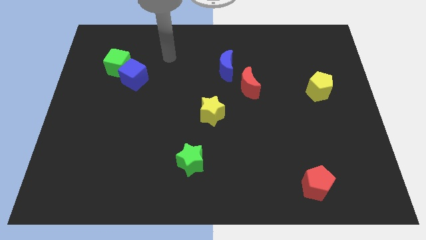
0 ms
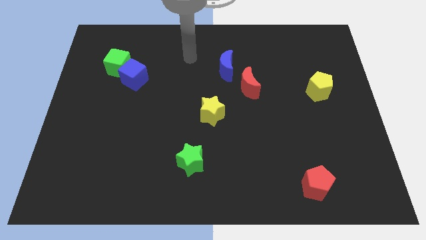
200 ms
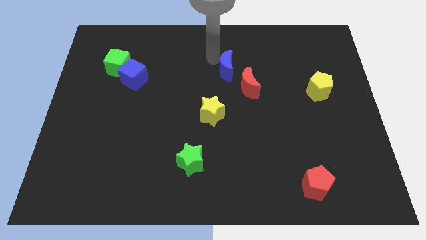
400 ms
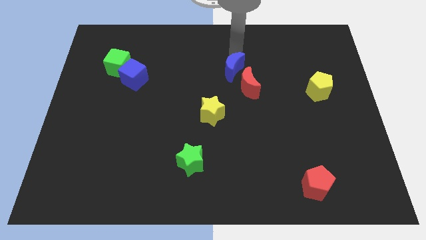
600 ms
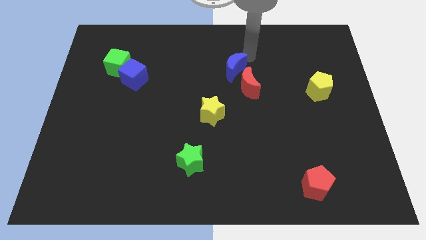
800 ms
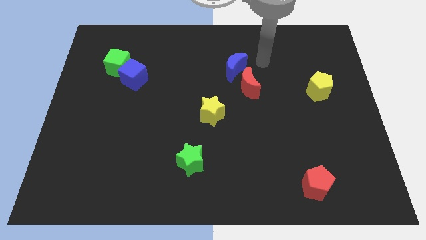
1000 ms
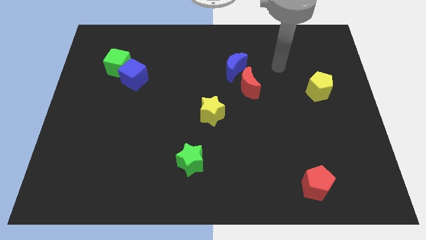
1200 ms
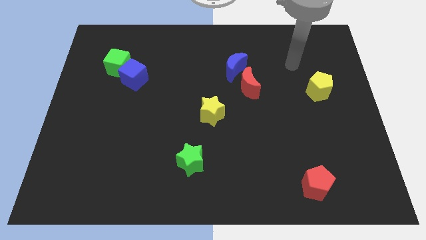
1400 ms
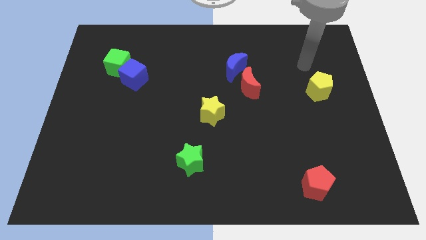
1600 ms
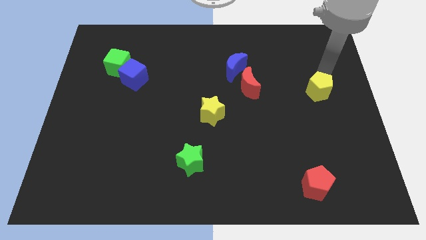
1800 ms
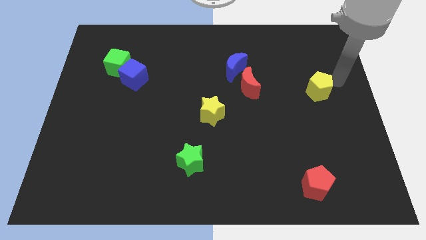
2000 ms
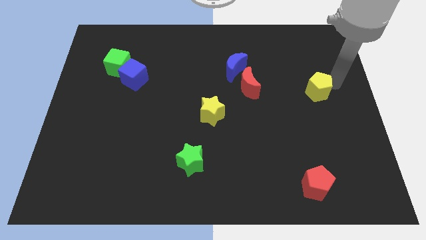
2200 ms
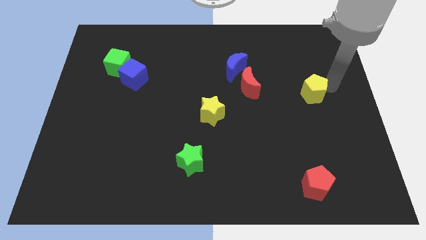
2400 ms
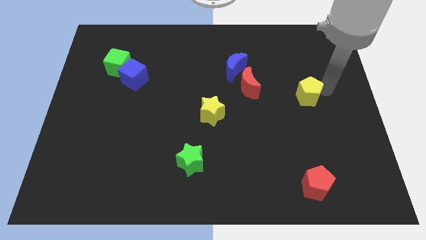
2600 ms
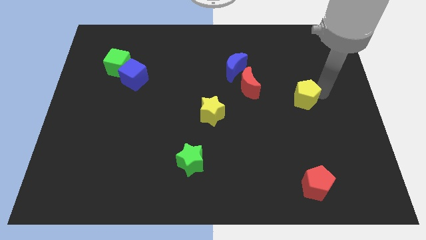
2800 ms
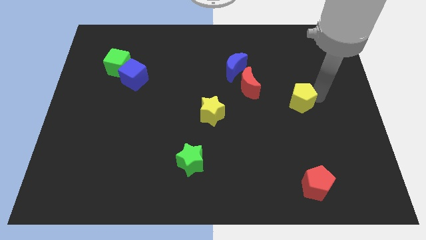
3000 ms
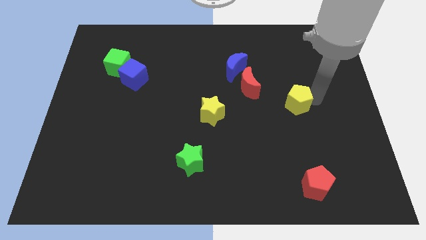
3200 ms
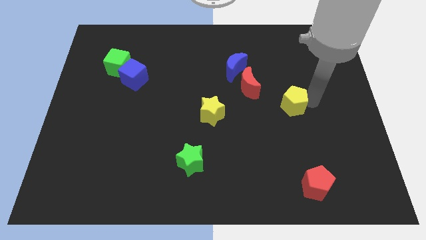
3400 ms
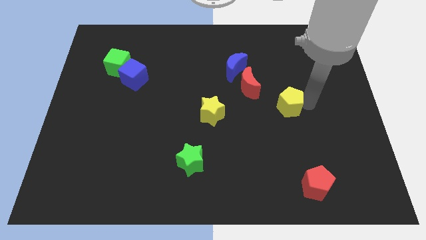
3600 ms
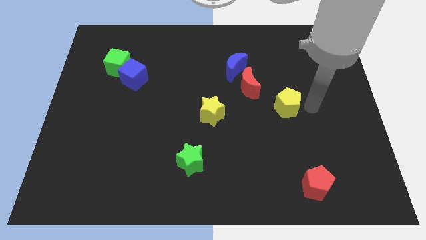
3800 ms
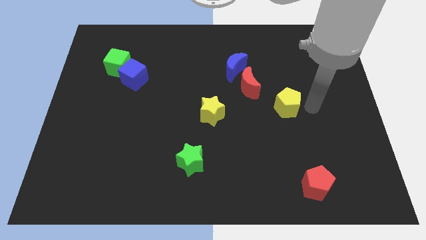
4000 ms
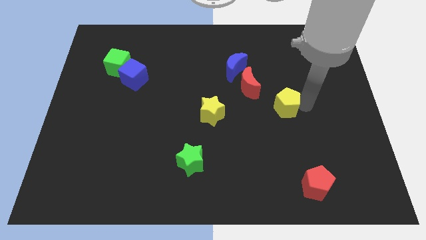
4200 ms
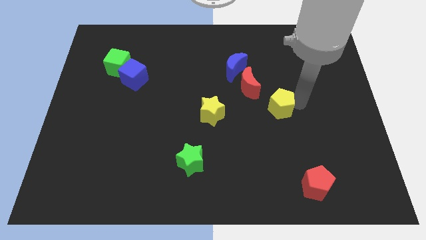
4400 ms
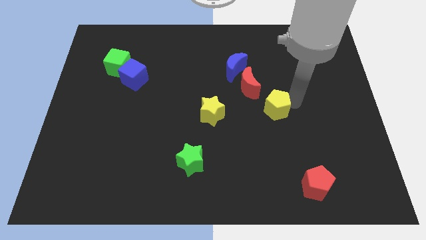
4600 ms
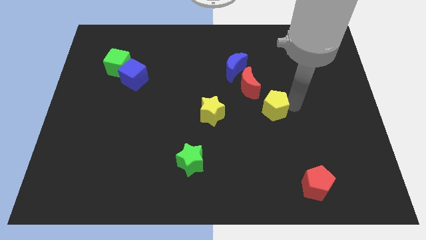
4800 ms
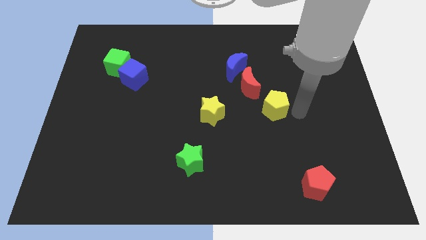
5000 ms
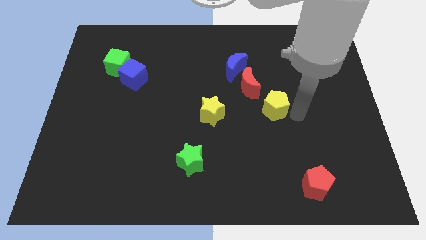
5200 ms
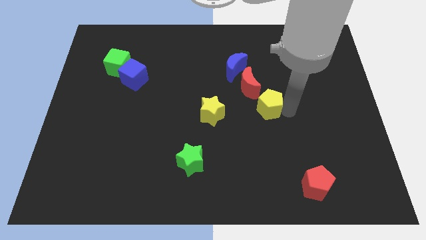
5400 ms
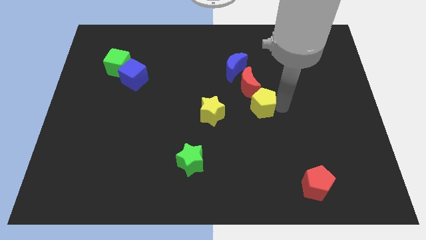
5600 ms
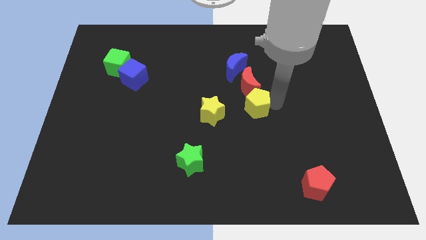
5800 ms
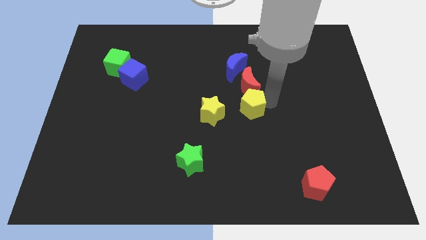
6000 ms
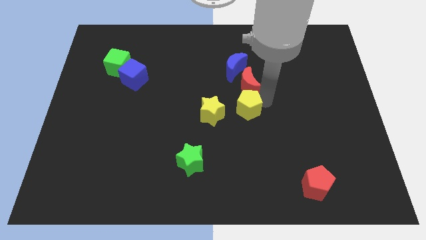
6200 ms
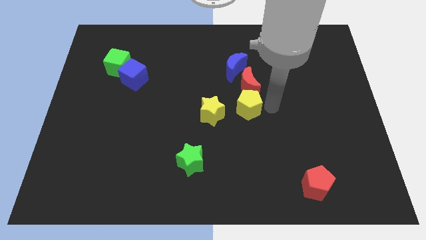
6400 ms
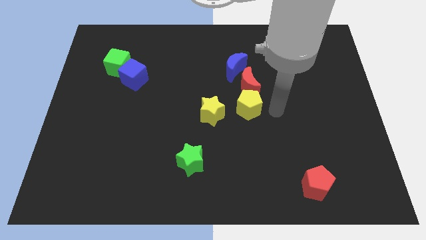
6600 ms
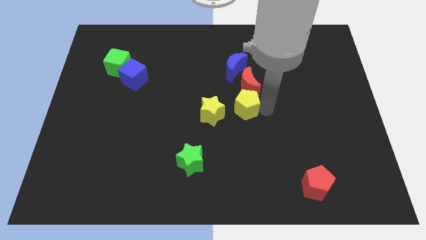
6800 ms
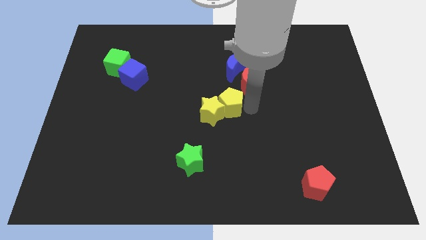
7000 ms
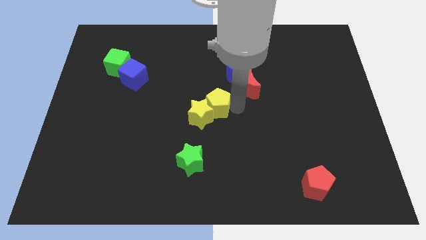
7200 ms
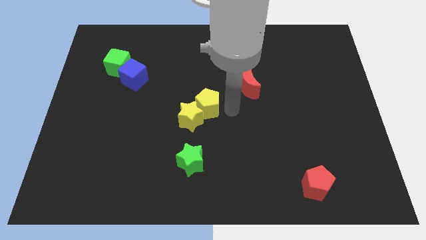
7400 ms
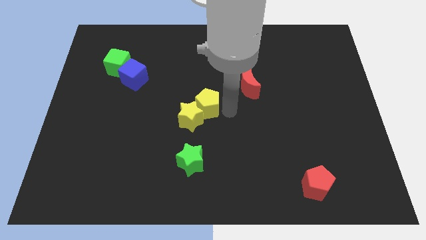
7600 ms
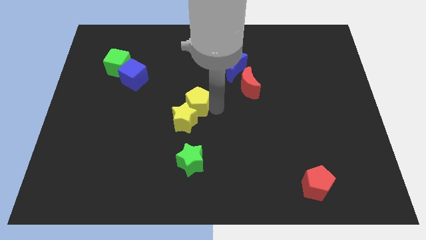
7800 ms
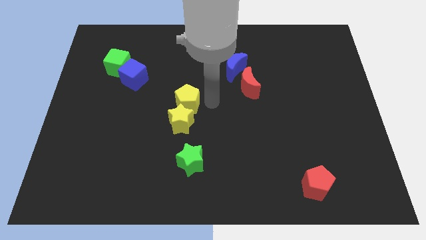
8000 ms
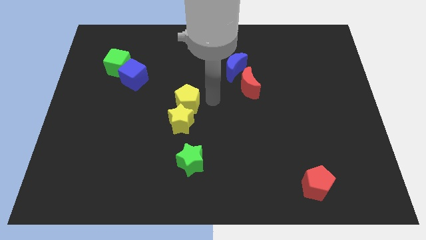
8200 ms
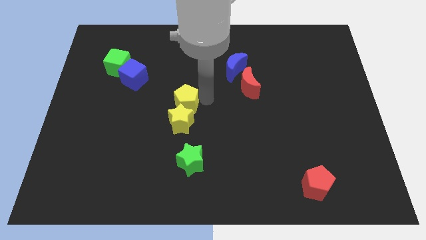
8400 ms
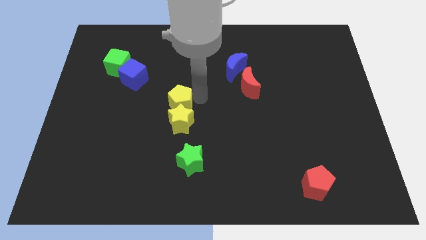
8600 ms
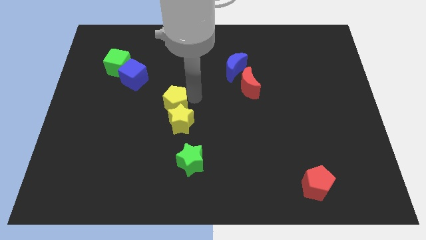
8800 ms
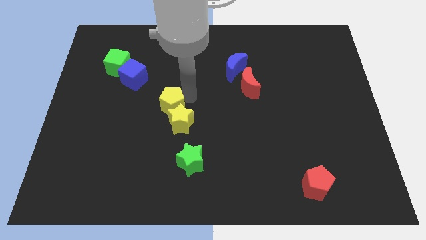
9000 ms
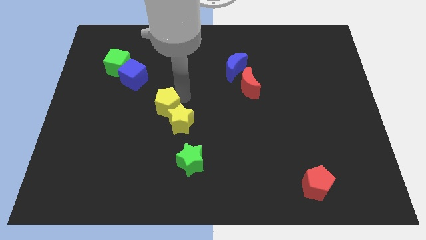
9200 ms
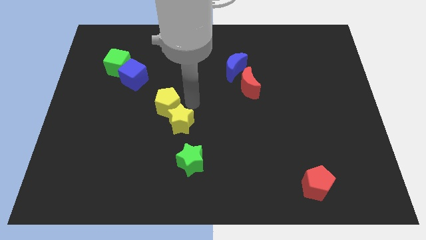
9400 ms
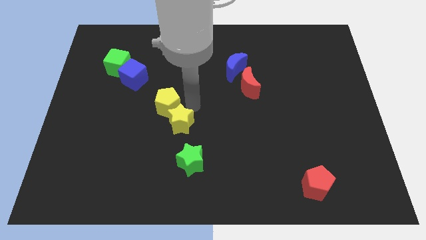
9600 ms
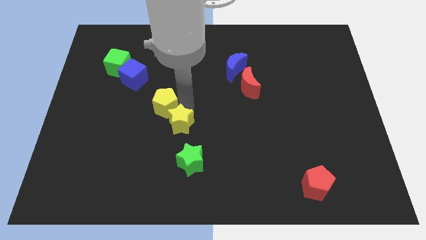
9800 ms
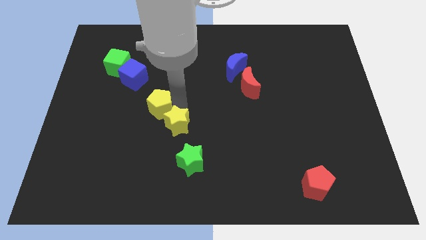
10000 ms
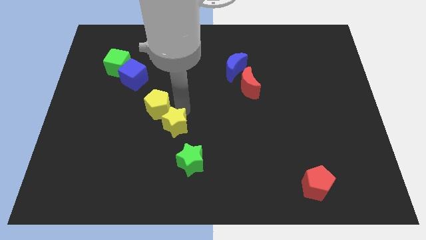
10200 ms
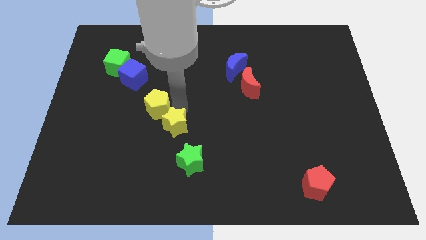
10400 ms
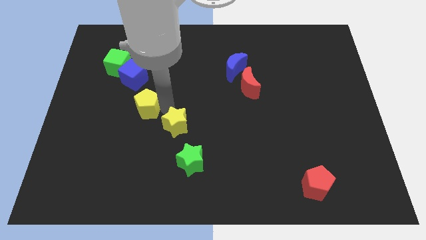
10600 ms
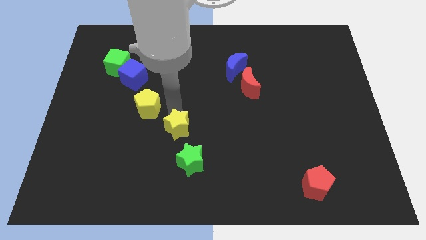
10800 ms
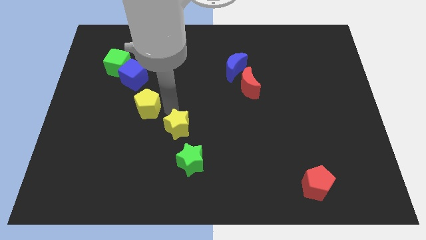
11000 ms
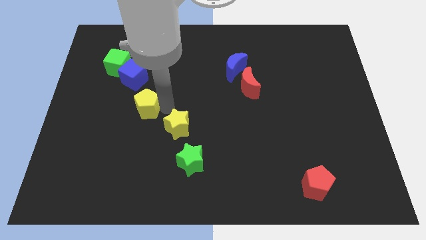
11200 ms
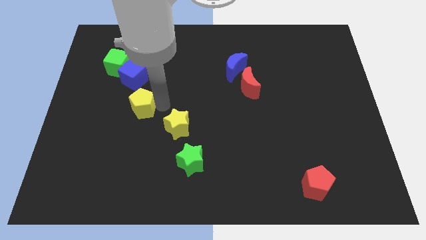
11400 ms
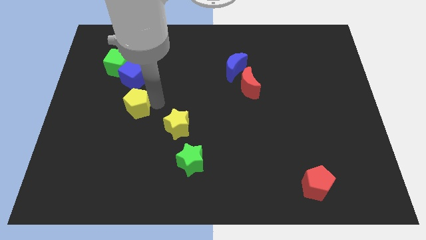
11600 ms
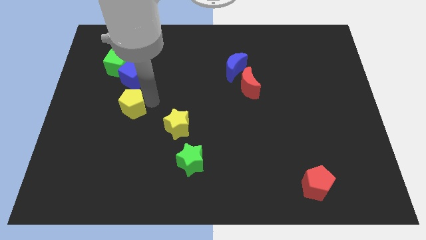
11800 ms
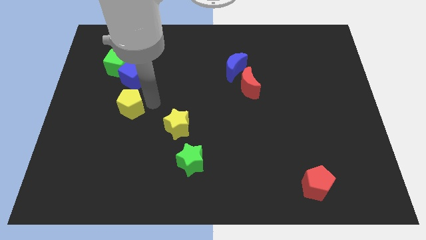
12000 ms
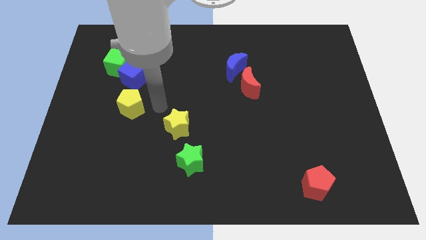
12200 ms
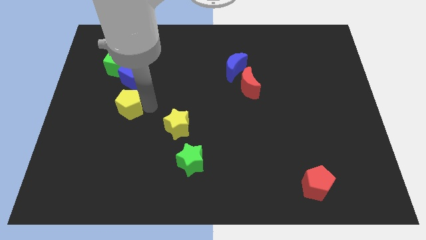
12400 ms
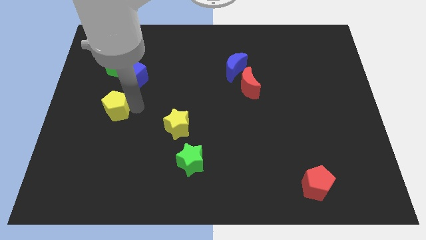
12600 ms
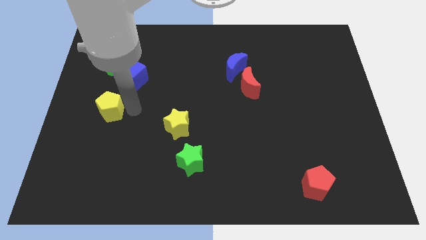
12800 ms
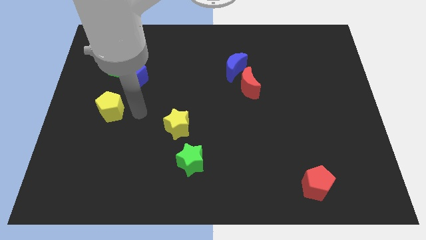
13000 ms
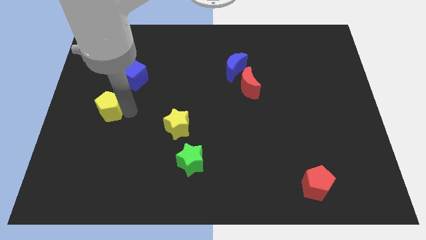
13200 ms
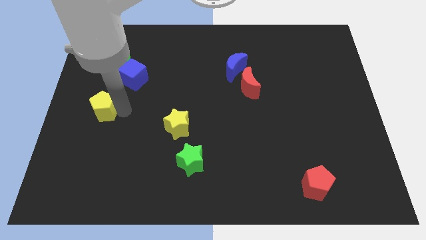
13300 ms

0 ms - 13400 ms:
move the yellow pentagon to the left side
